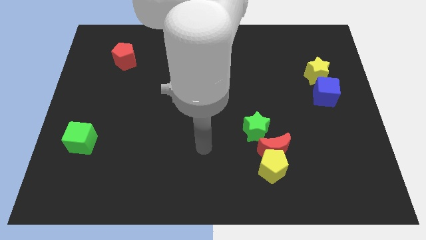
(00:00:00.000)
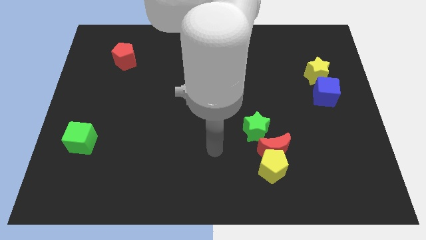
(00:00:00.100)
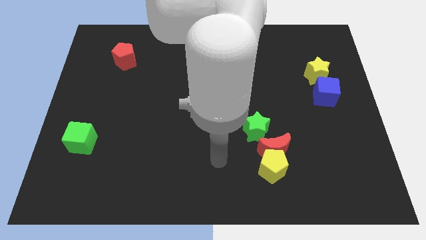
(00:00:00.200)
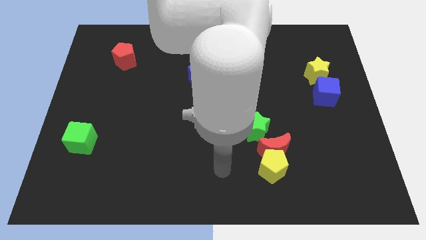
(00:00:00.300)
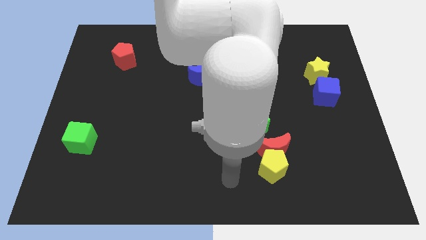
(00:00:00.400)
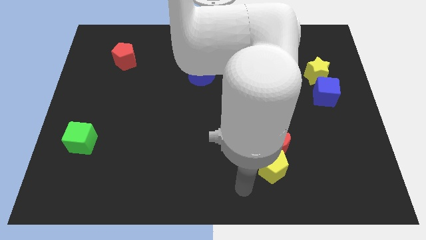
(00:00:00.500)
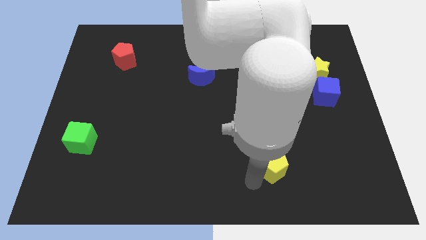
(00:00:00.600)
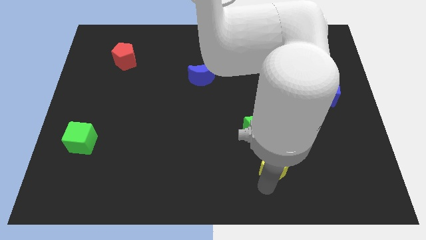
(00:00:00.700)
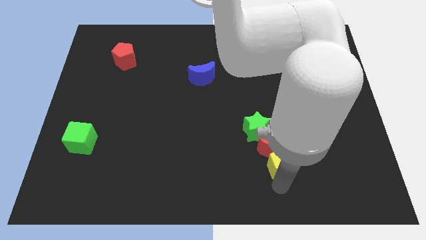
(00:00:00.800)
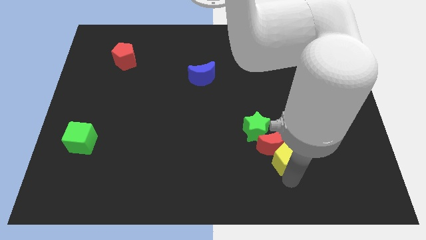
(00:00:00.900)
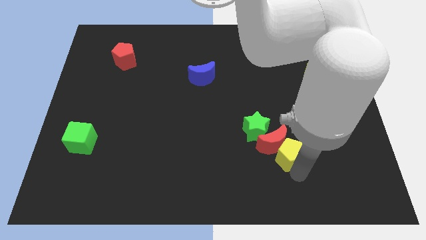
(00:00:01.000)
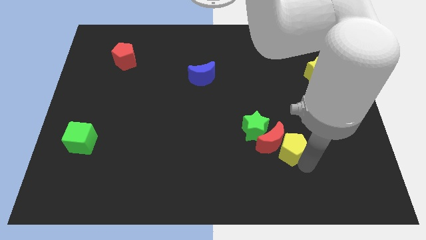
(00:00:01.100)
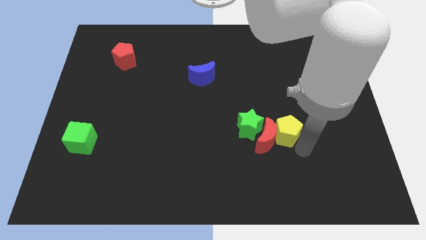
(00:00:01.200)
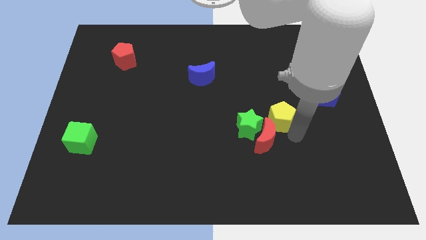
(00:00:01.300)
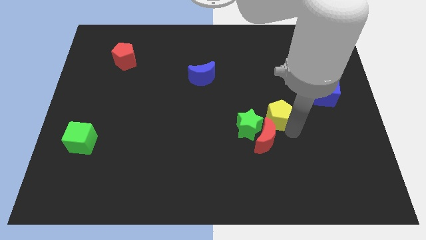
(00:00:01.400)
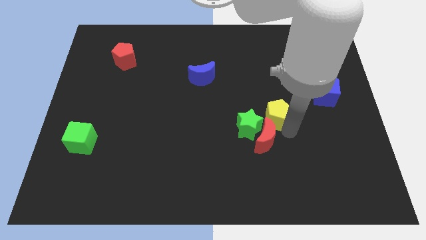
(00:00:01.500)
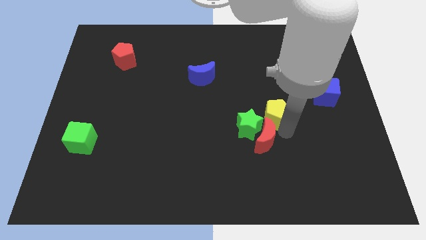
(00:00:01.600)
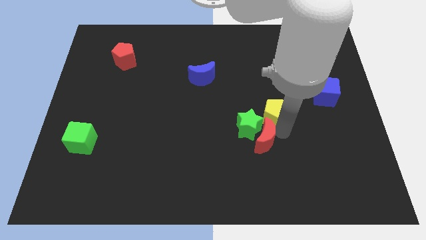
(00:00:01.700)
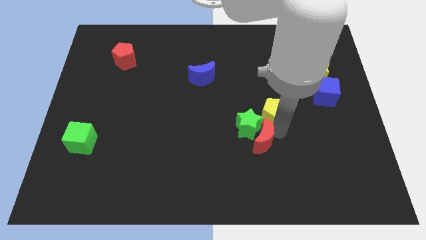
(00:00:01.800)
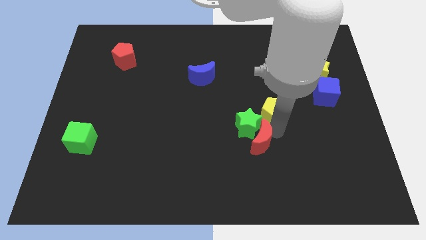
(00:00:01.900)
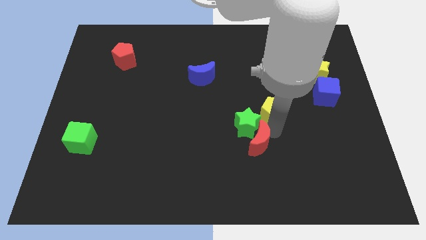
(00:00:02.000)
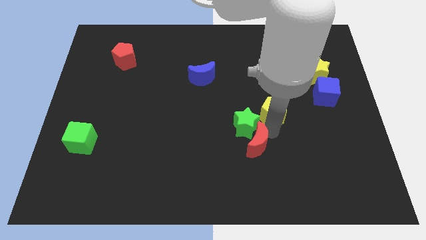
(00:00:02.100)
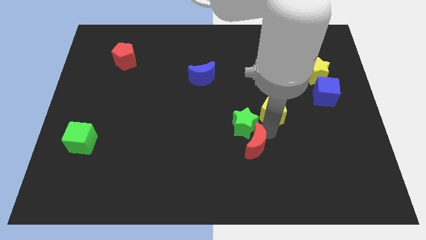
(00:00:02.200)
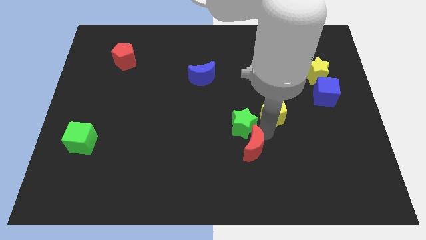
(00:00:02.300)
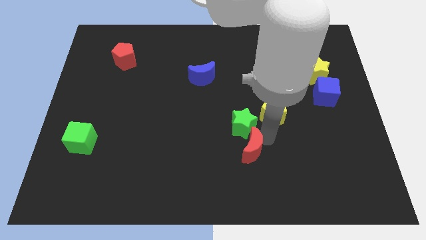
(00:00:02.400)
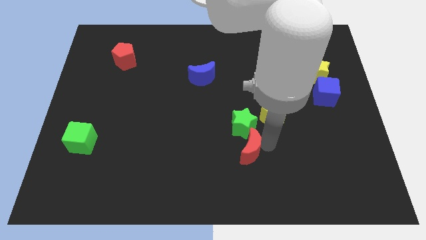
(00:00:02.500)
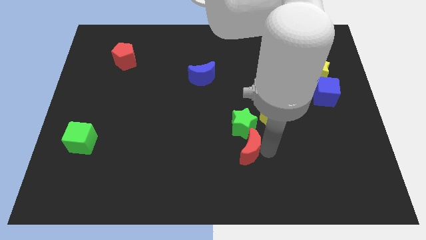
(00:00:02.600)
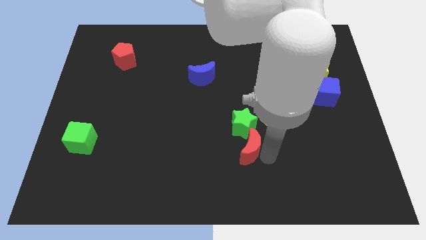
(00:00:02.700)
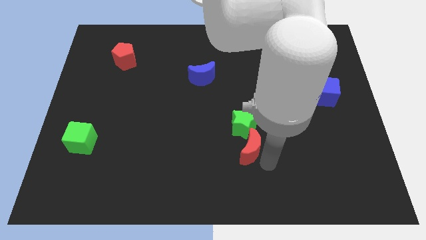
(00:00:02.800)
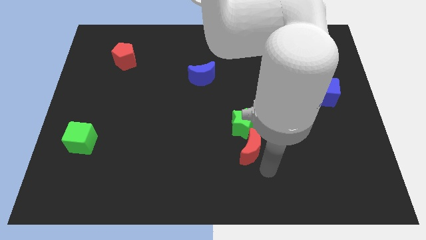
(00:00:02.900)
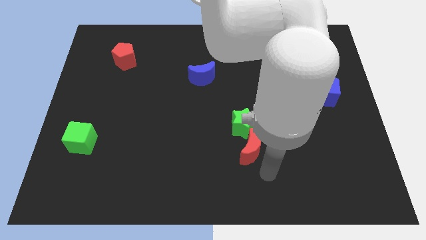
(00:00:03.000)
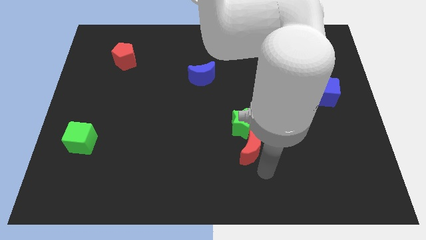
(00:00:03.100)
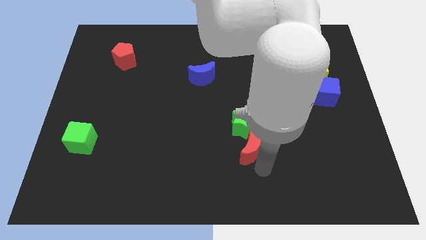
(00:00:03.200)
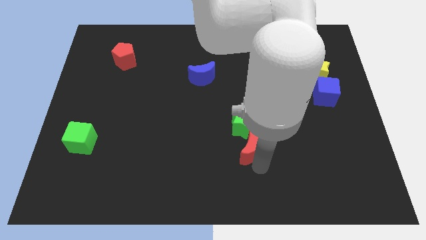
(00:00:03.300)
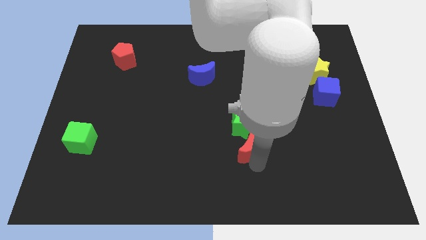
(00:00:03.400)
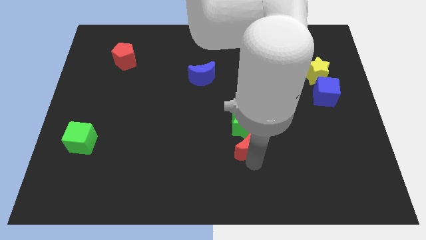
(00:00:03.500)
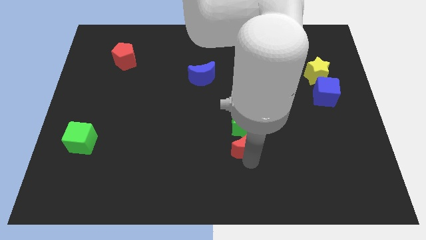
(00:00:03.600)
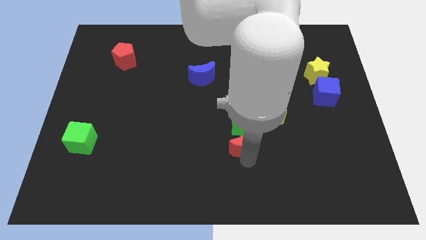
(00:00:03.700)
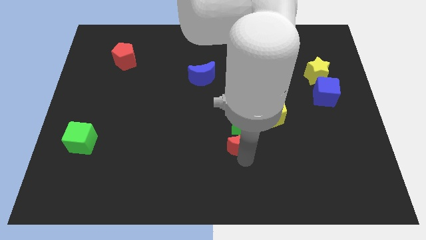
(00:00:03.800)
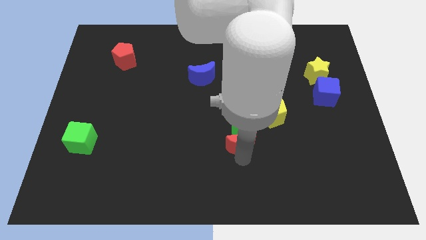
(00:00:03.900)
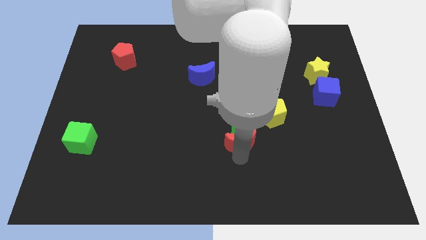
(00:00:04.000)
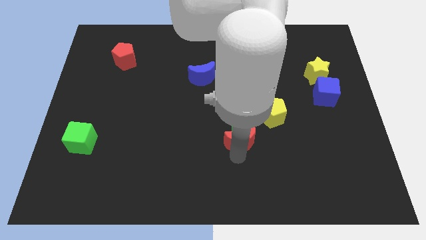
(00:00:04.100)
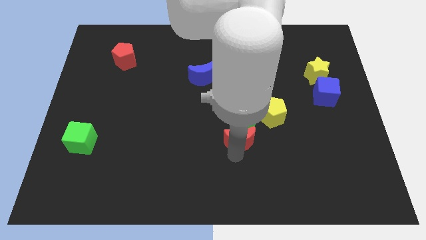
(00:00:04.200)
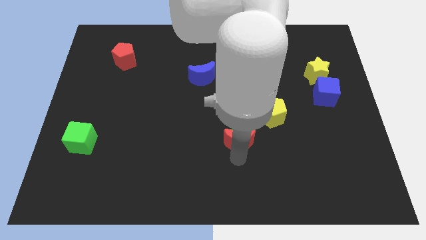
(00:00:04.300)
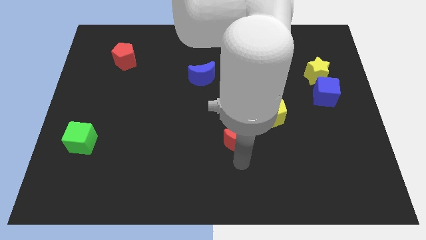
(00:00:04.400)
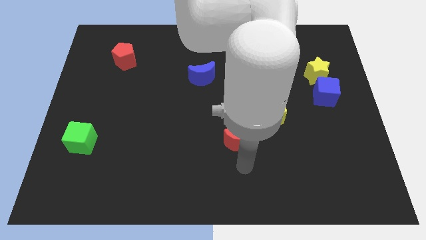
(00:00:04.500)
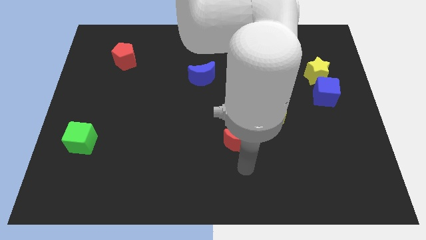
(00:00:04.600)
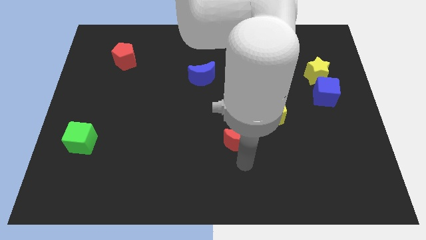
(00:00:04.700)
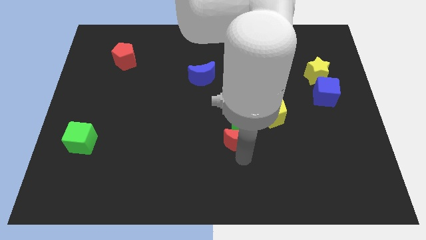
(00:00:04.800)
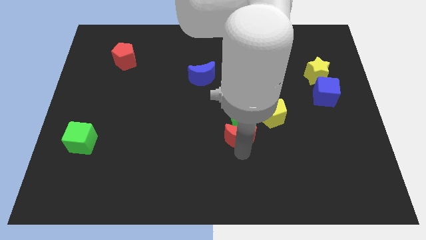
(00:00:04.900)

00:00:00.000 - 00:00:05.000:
slide the red moon to the middle of the board
